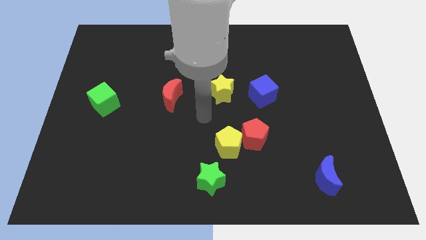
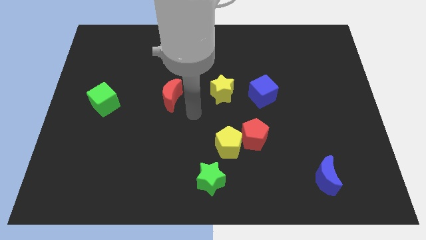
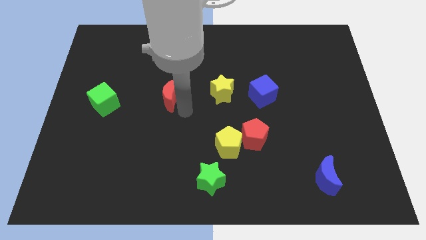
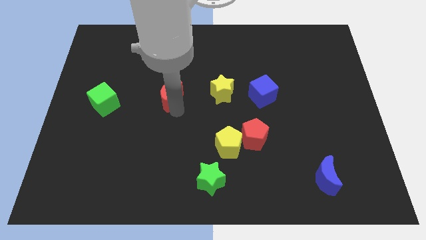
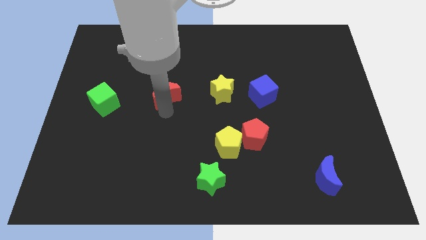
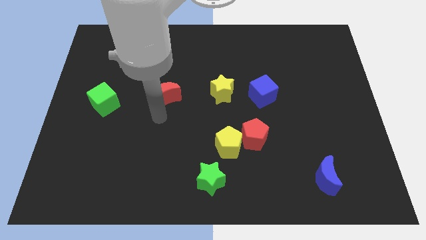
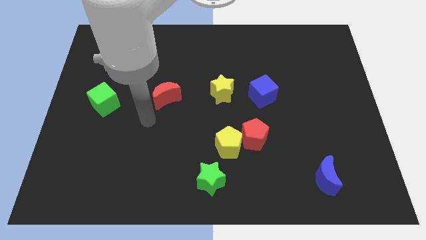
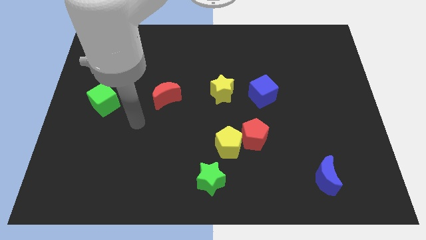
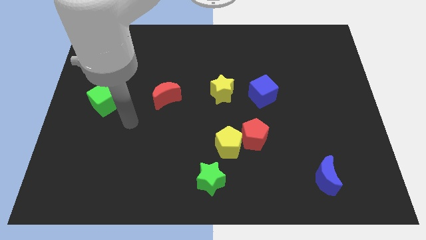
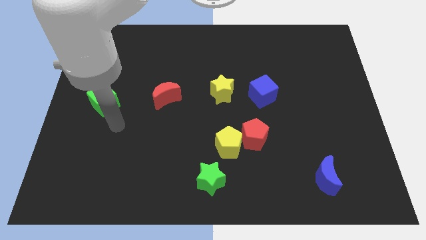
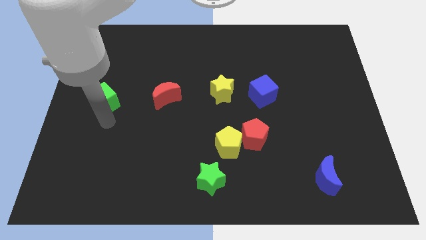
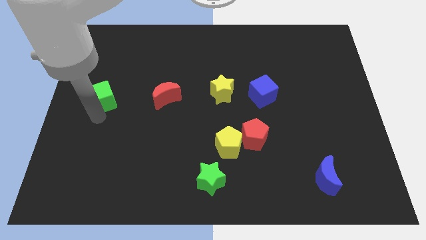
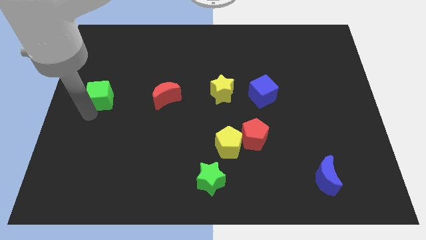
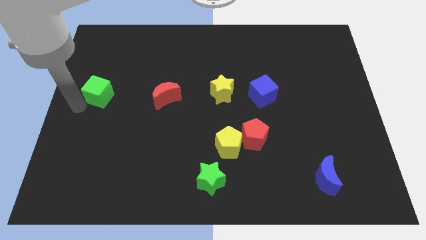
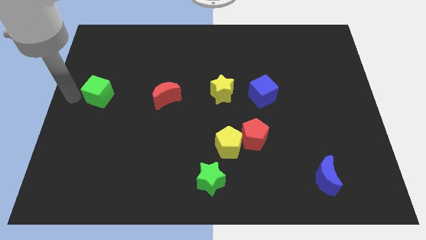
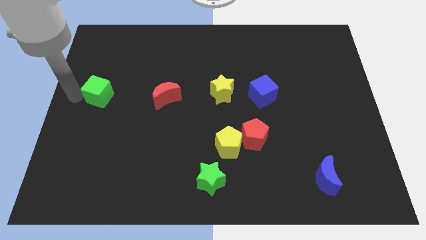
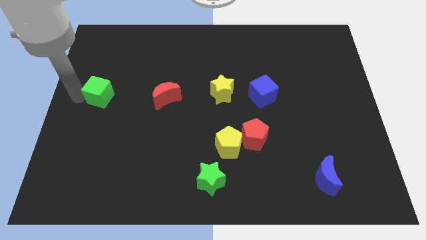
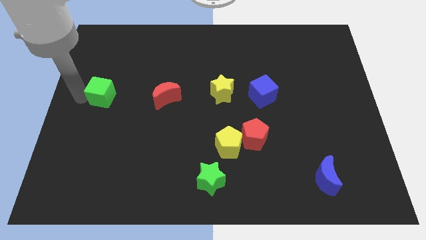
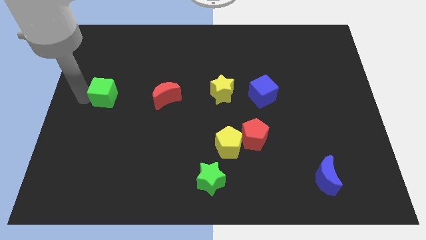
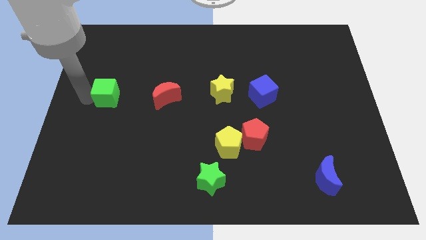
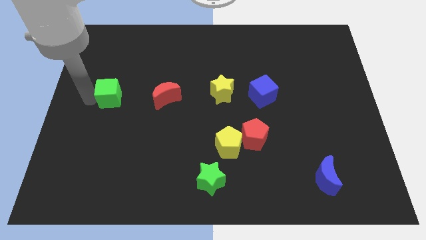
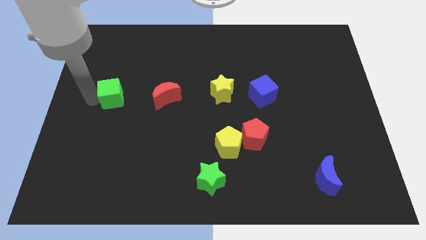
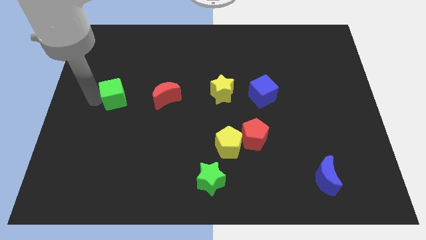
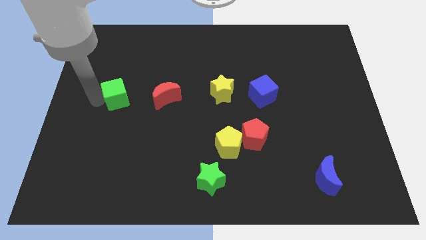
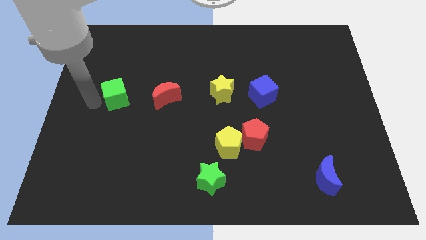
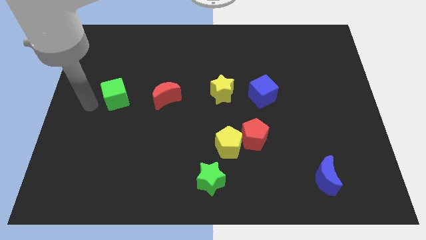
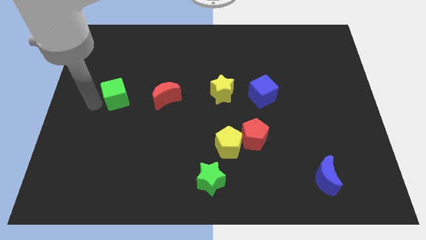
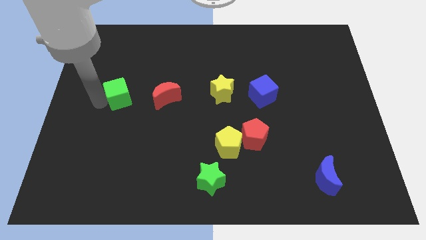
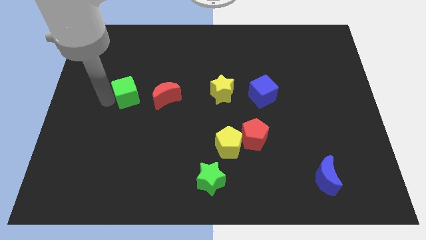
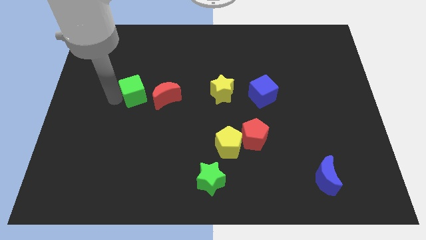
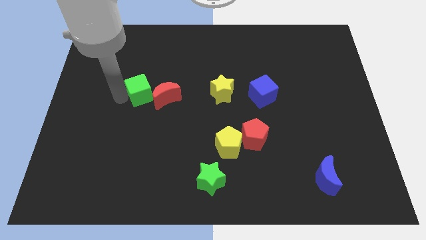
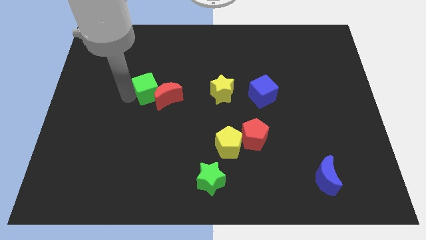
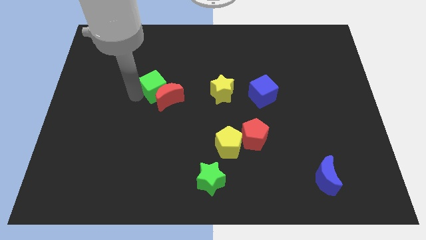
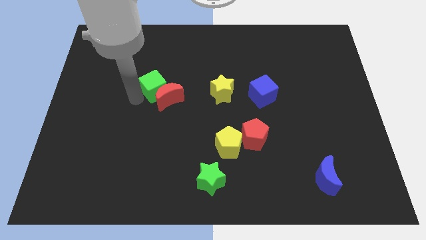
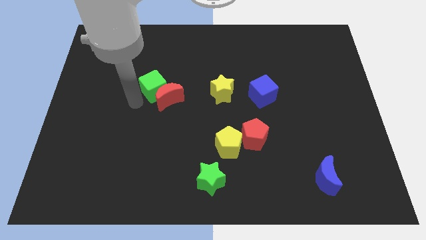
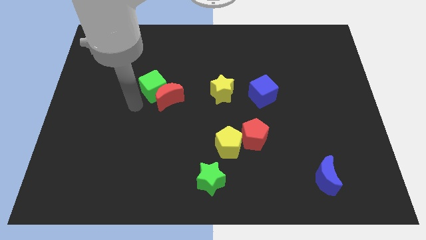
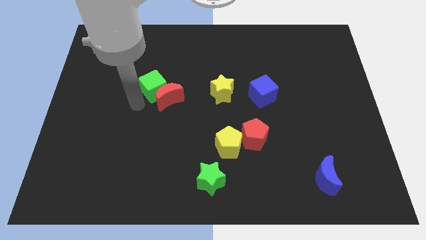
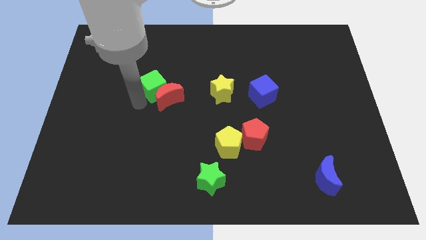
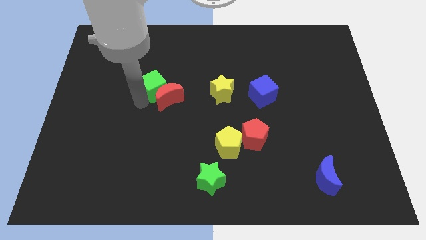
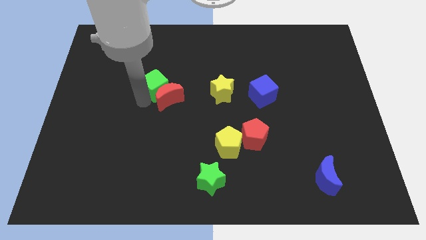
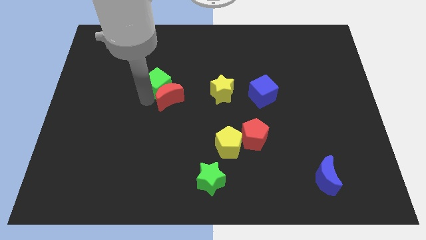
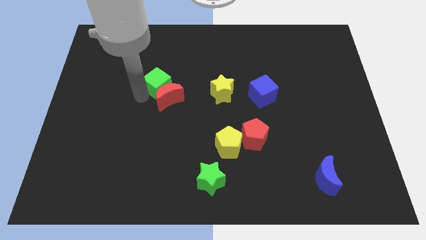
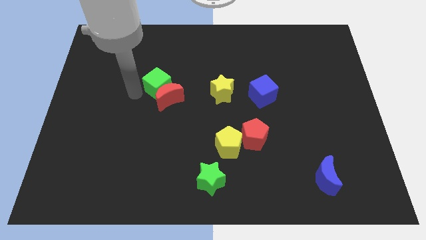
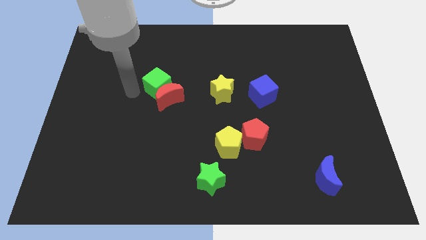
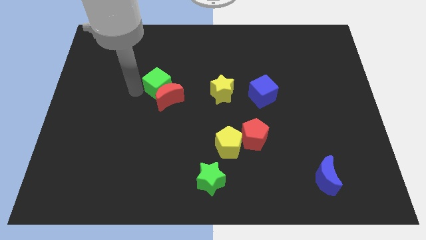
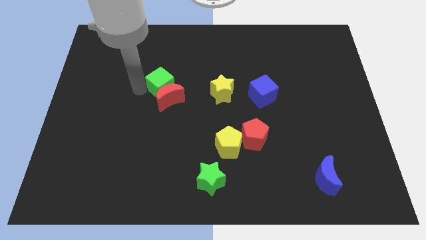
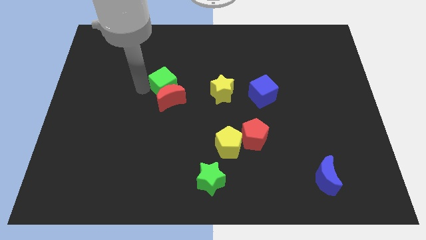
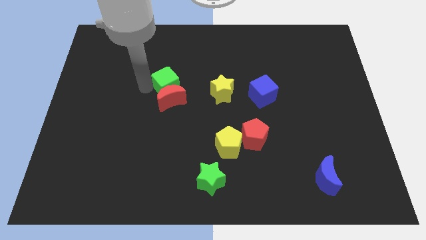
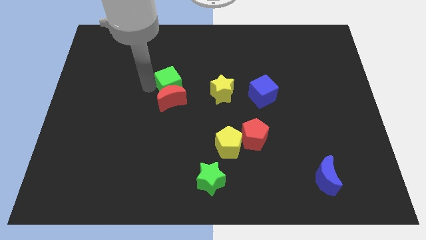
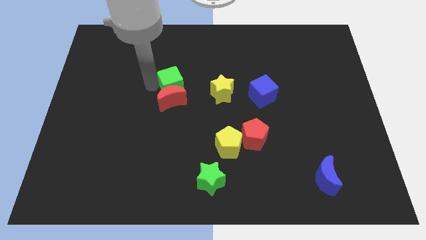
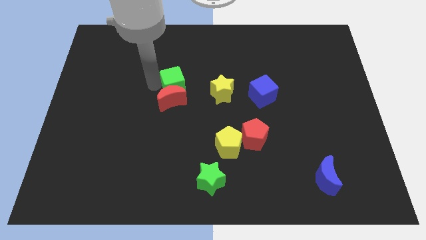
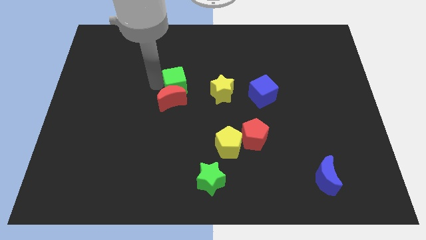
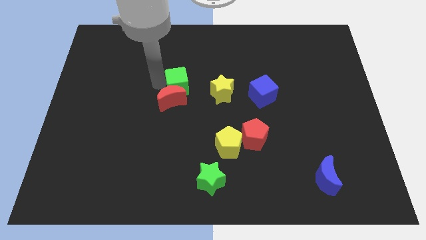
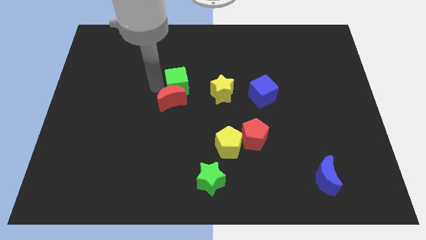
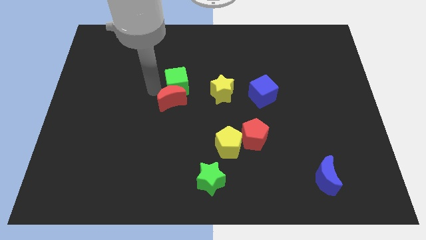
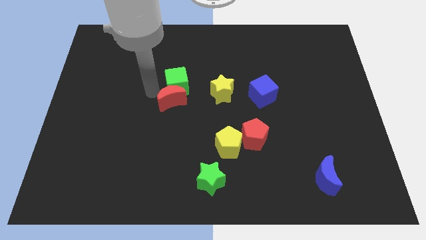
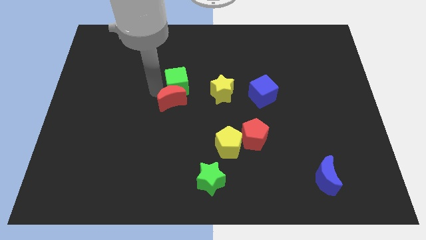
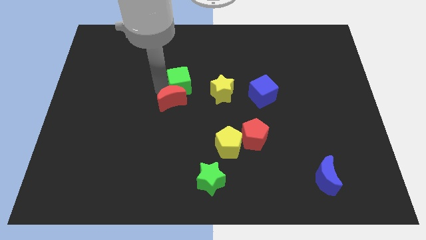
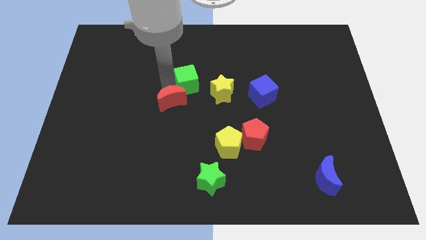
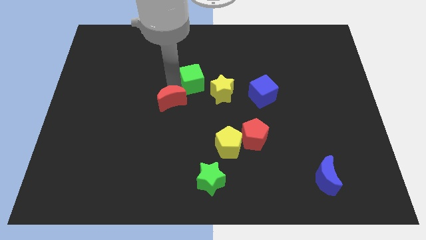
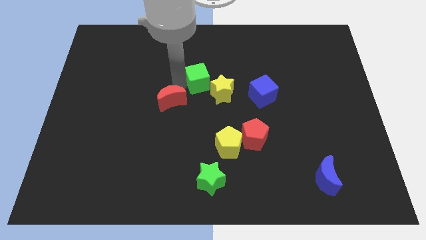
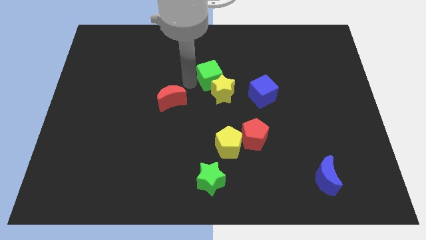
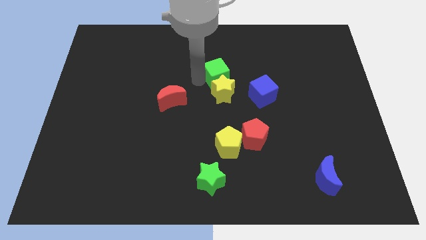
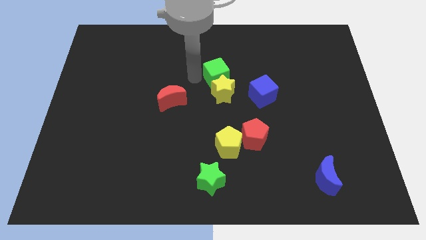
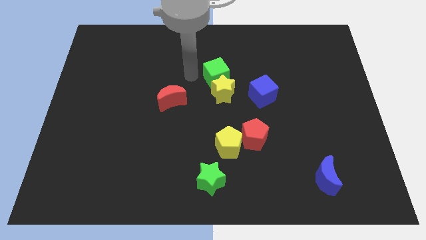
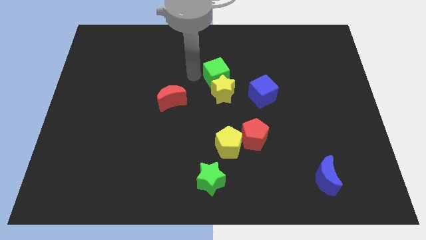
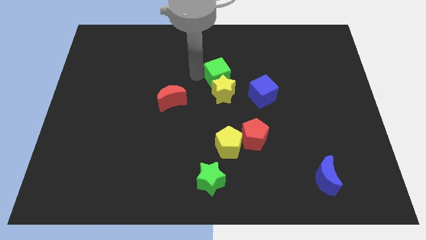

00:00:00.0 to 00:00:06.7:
push the green cube diagonally up and to the right of the yellow star

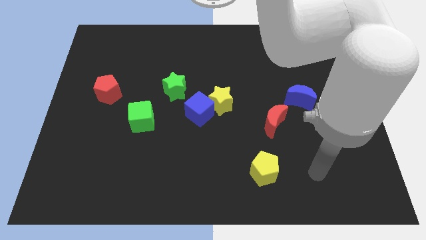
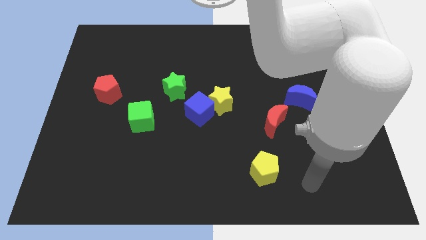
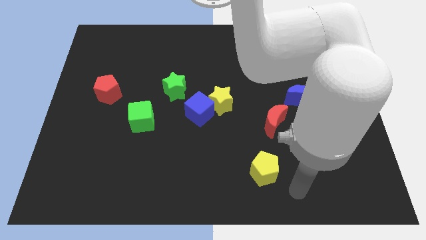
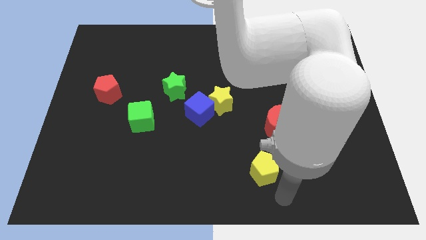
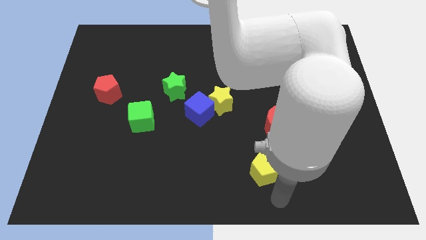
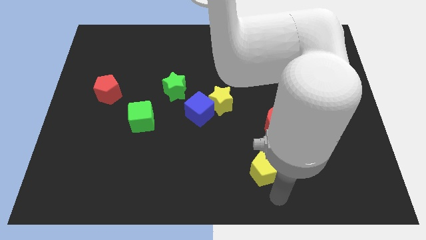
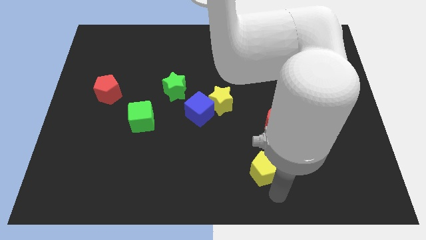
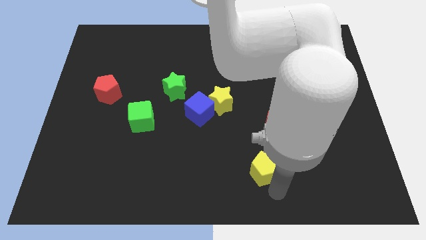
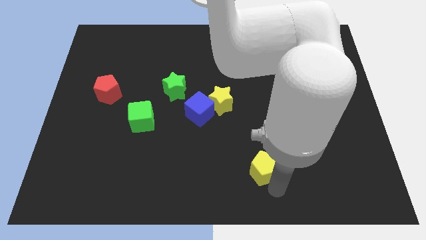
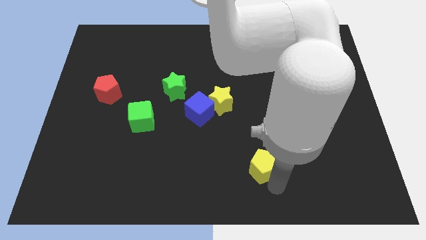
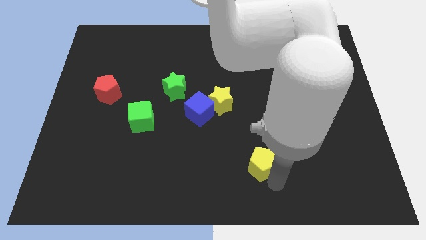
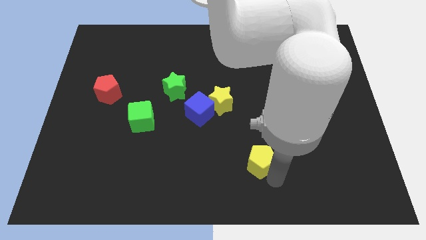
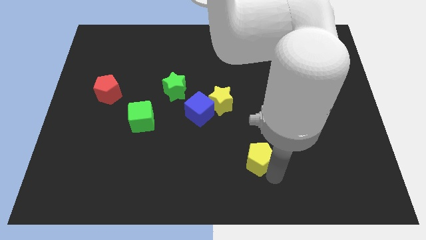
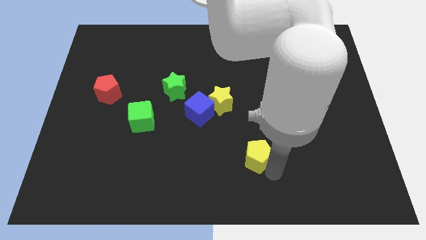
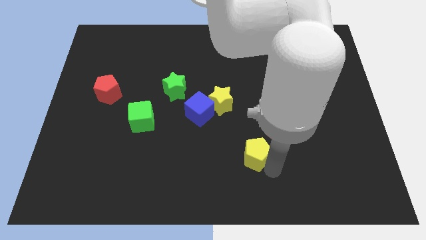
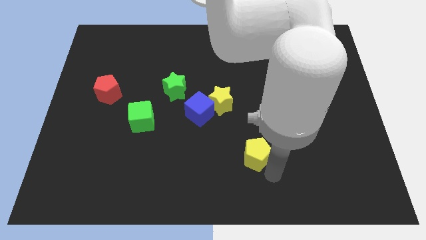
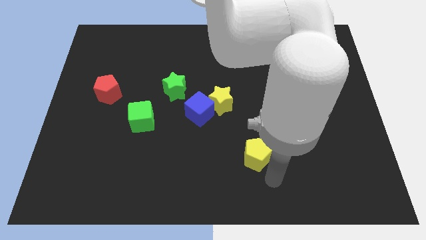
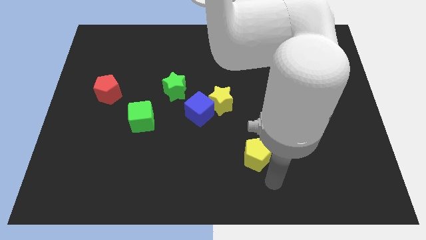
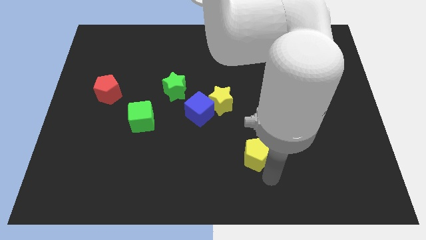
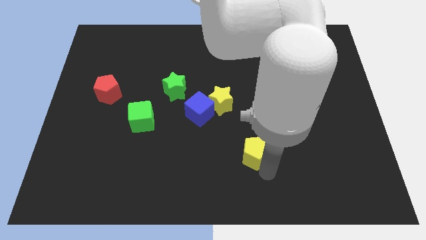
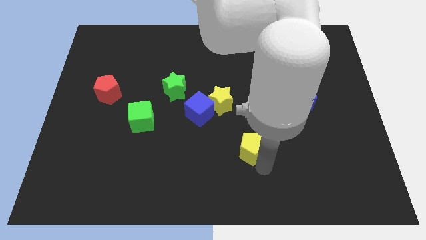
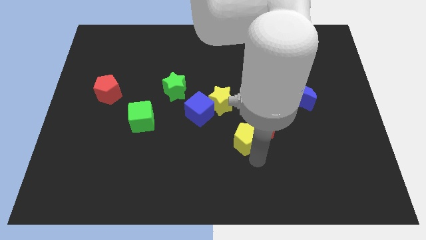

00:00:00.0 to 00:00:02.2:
push the yellow pentagon to the bottom right side of the yellow star
